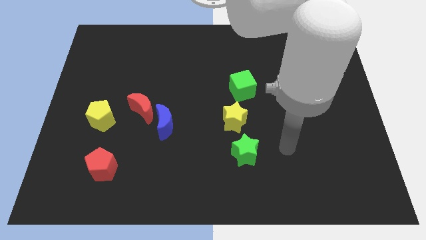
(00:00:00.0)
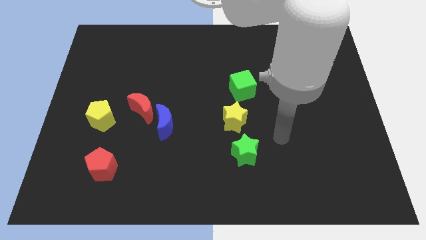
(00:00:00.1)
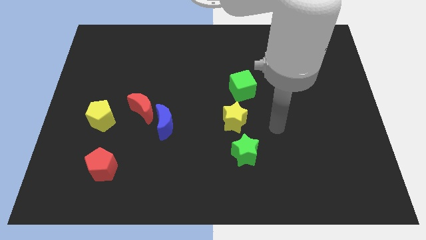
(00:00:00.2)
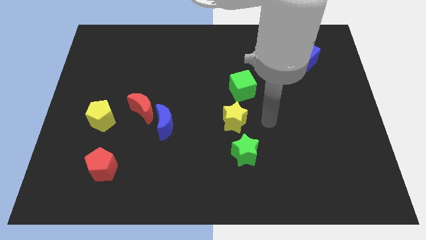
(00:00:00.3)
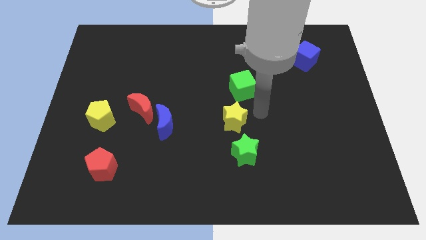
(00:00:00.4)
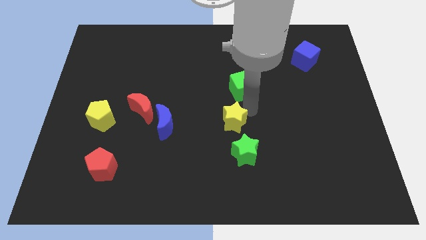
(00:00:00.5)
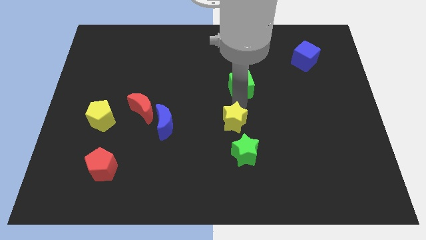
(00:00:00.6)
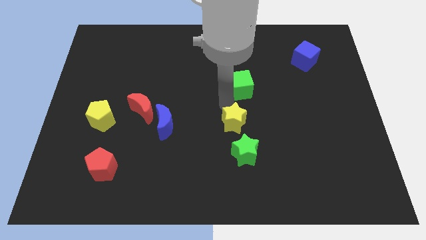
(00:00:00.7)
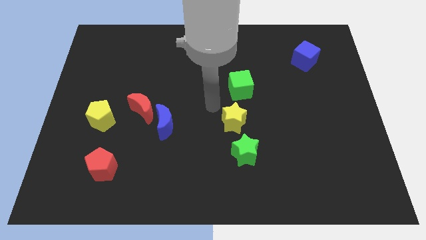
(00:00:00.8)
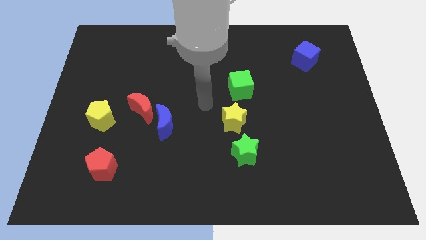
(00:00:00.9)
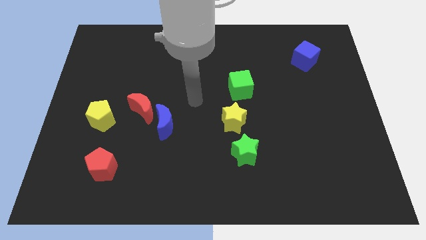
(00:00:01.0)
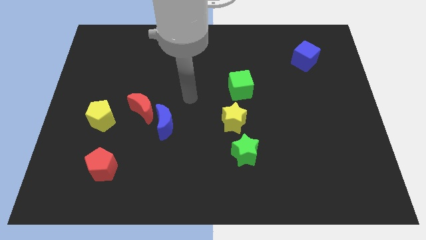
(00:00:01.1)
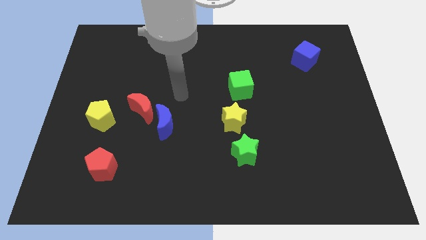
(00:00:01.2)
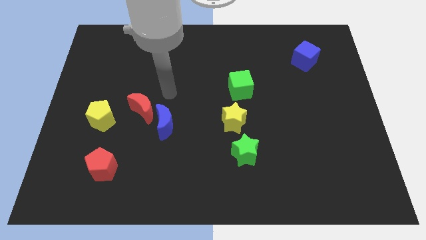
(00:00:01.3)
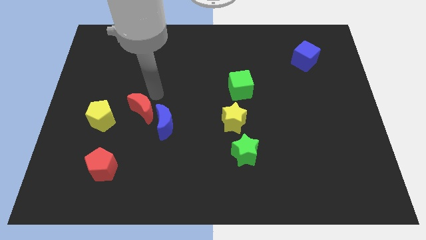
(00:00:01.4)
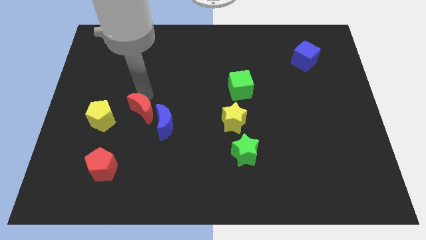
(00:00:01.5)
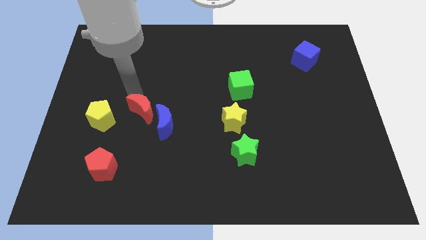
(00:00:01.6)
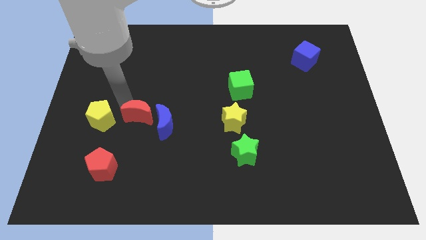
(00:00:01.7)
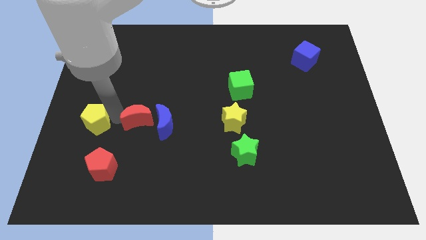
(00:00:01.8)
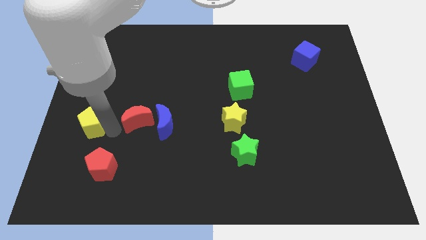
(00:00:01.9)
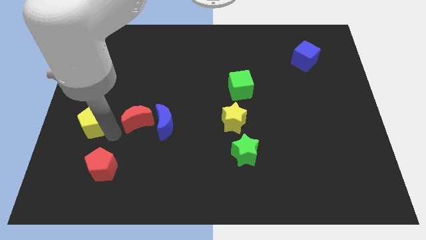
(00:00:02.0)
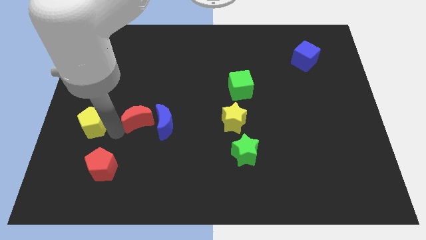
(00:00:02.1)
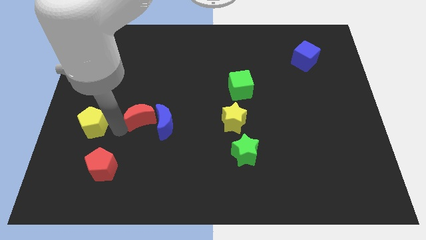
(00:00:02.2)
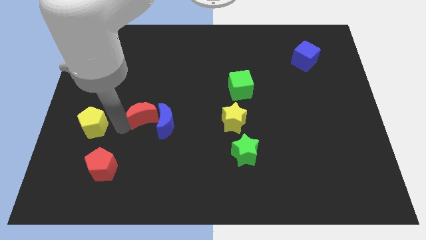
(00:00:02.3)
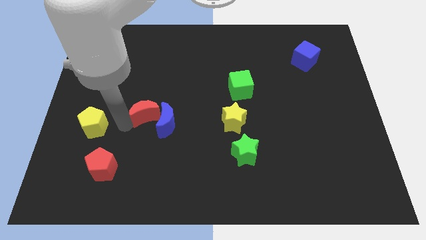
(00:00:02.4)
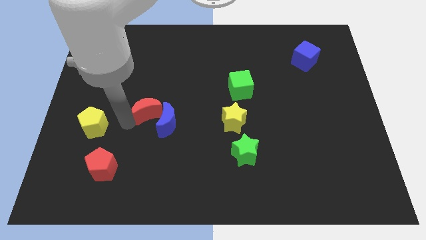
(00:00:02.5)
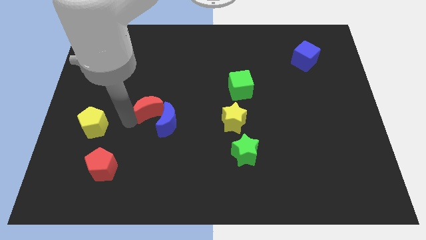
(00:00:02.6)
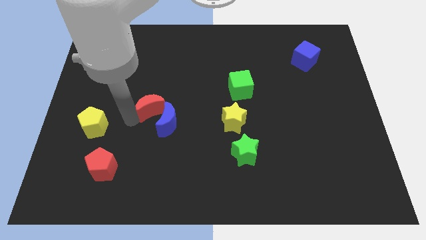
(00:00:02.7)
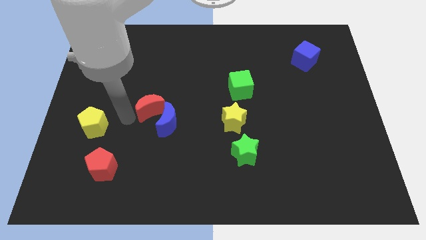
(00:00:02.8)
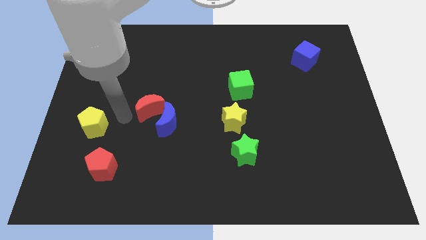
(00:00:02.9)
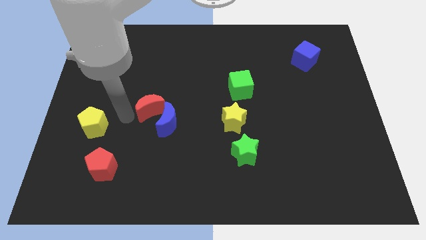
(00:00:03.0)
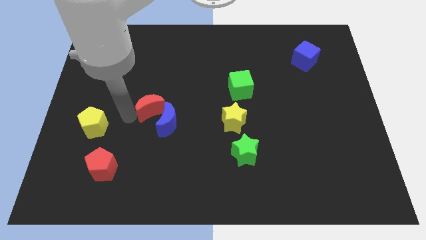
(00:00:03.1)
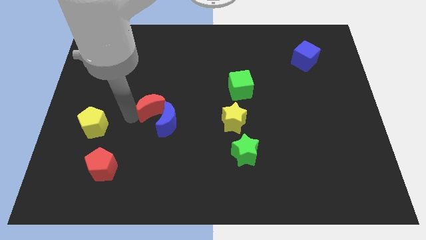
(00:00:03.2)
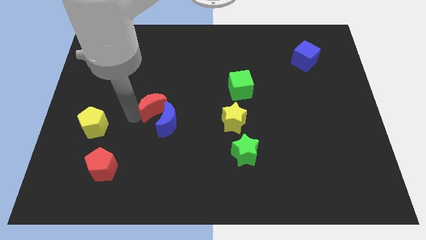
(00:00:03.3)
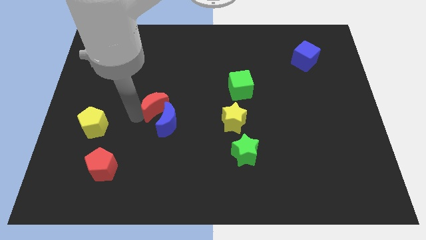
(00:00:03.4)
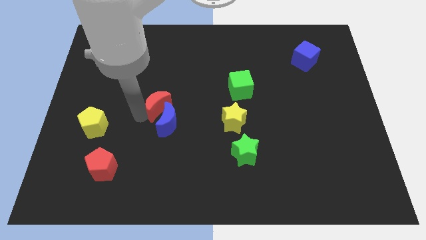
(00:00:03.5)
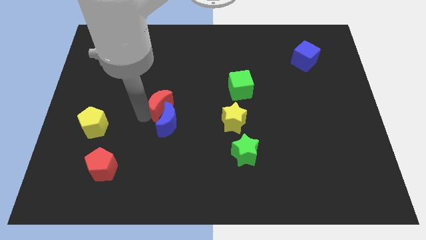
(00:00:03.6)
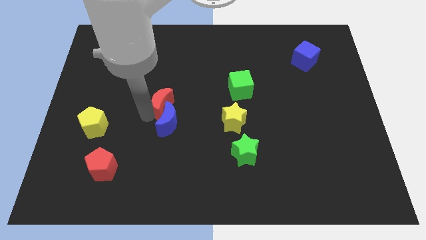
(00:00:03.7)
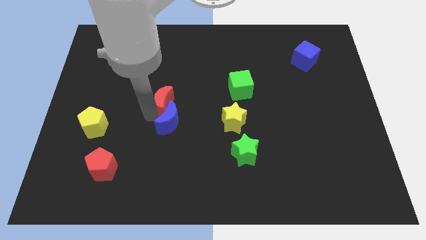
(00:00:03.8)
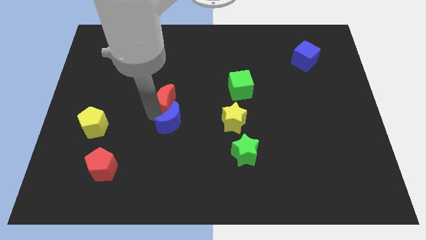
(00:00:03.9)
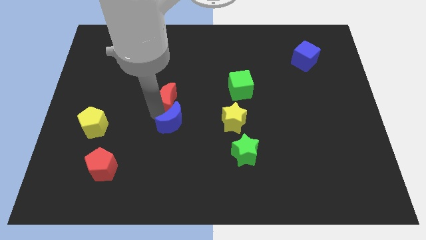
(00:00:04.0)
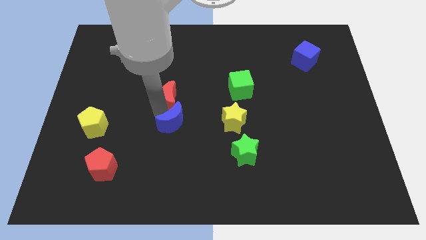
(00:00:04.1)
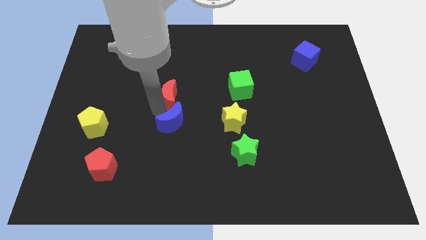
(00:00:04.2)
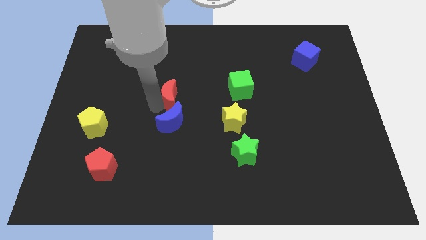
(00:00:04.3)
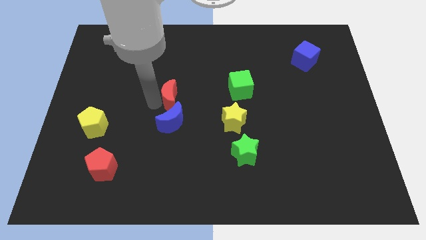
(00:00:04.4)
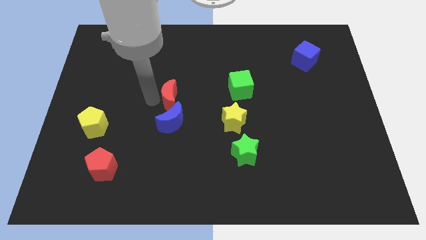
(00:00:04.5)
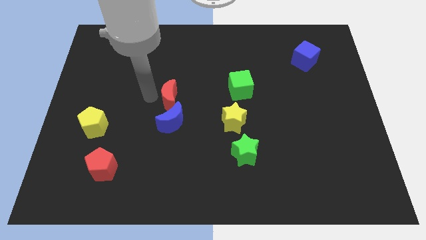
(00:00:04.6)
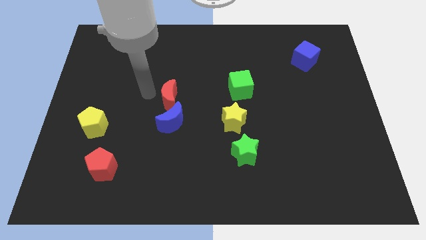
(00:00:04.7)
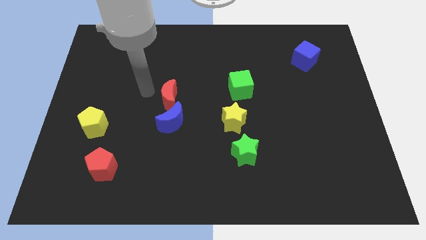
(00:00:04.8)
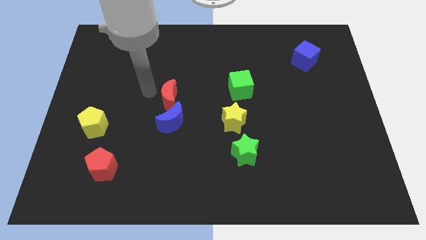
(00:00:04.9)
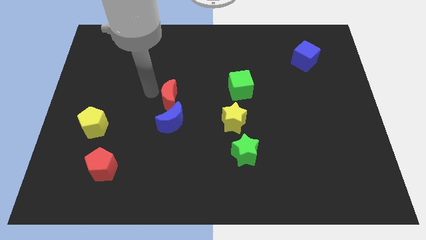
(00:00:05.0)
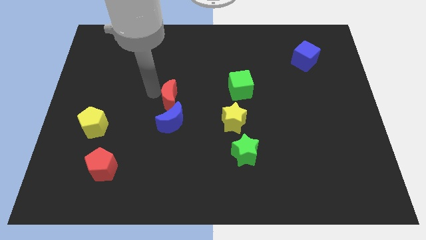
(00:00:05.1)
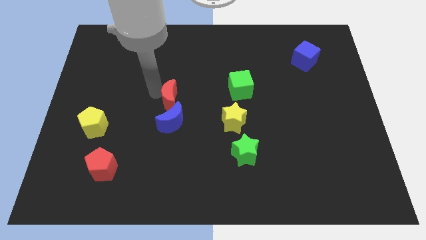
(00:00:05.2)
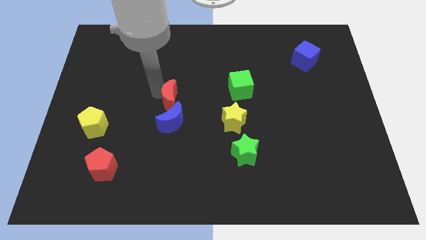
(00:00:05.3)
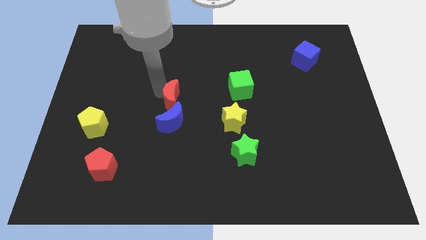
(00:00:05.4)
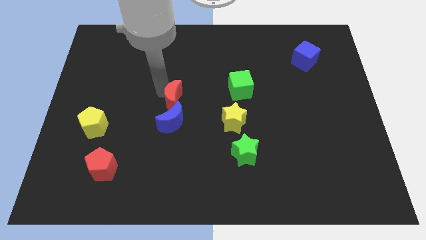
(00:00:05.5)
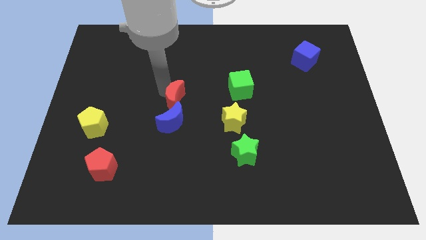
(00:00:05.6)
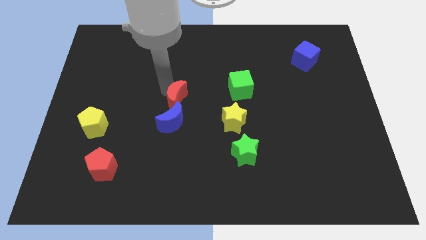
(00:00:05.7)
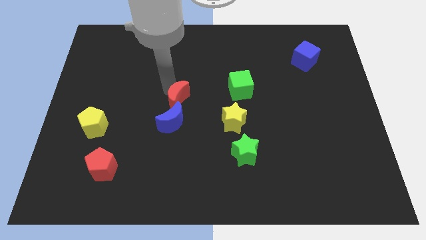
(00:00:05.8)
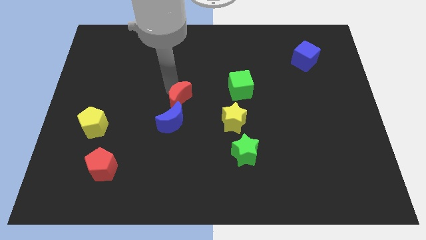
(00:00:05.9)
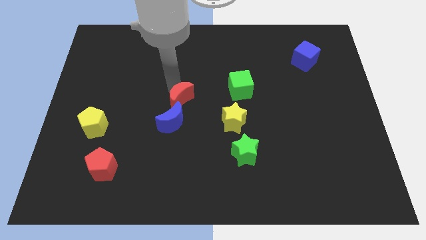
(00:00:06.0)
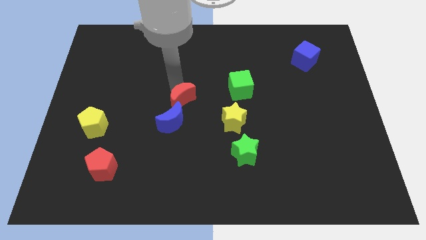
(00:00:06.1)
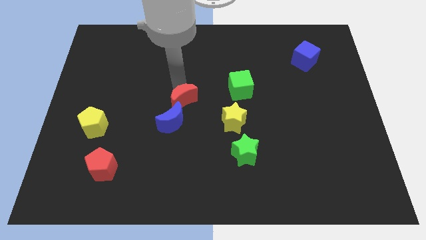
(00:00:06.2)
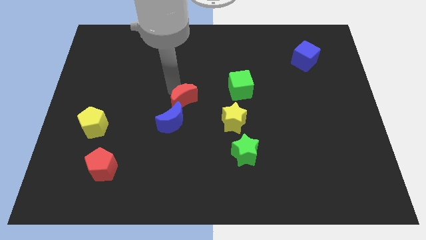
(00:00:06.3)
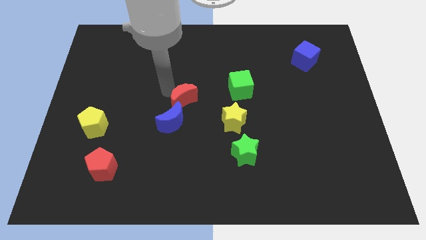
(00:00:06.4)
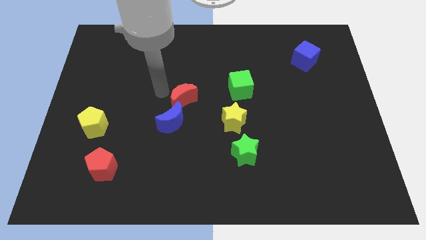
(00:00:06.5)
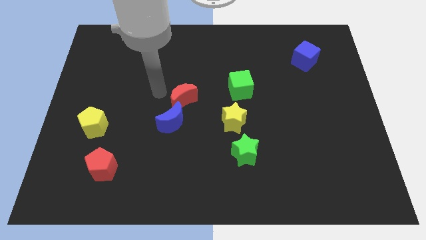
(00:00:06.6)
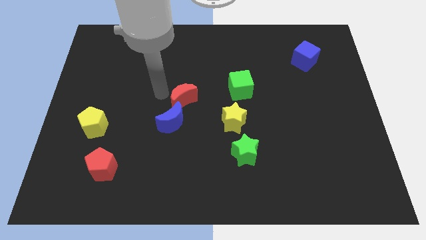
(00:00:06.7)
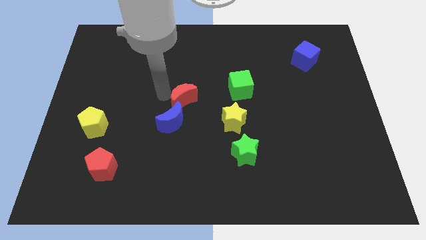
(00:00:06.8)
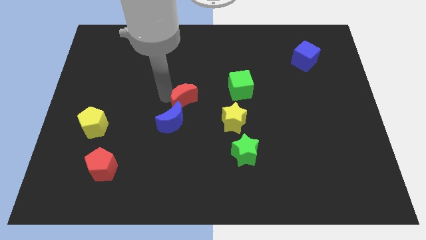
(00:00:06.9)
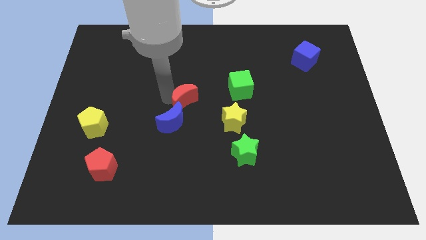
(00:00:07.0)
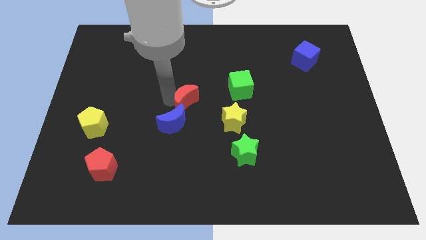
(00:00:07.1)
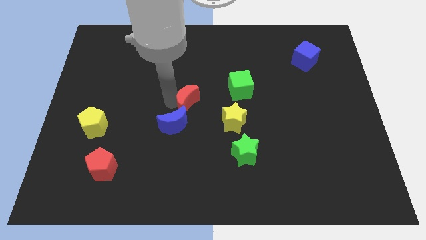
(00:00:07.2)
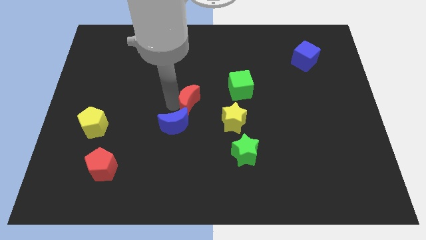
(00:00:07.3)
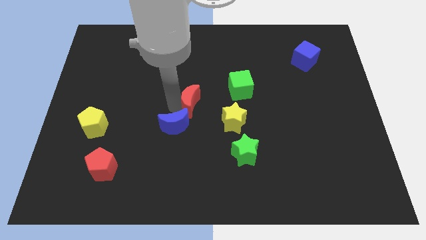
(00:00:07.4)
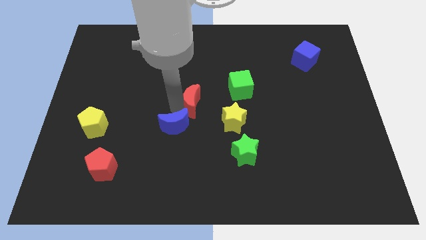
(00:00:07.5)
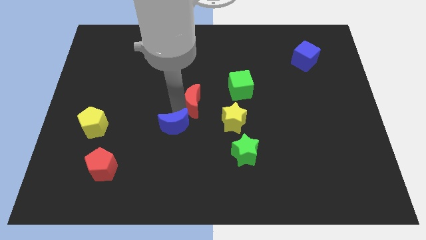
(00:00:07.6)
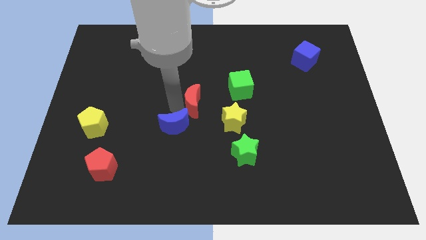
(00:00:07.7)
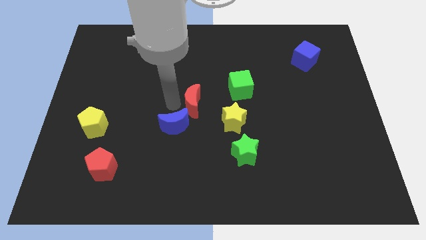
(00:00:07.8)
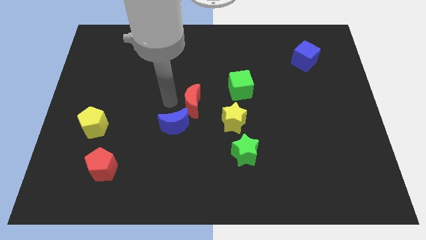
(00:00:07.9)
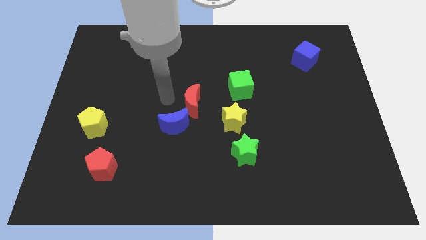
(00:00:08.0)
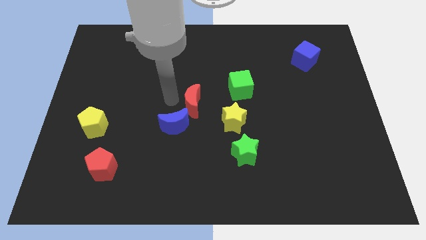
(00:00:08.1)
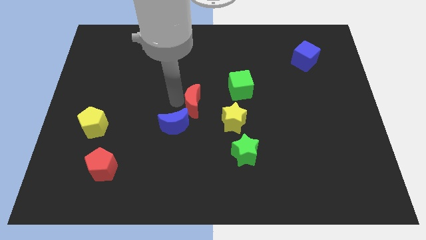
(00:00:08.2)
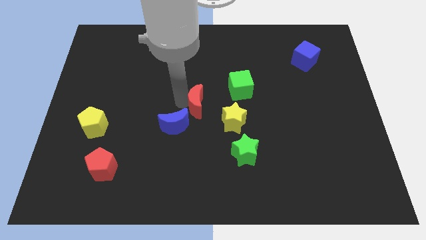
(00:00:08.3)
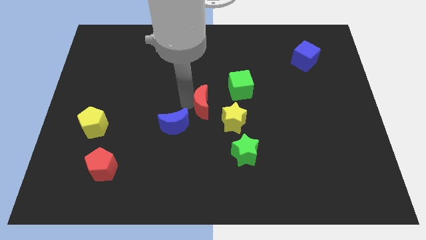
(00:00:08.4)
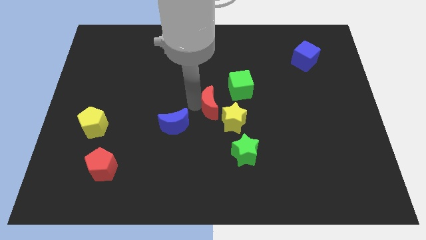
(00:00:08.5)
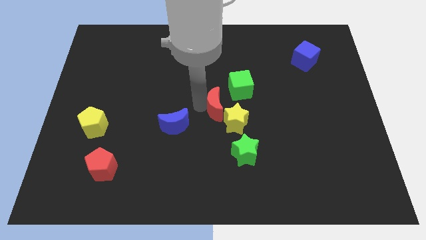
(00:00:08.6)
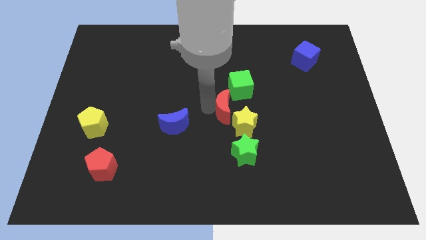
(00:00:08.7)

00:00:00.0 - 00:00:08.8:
push the red moon to the bottom side of the green cube
